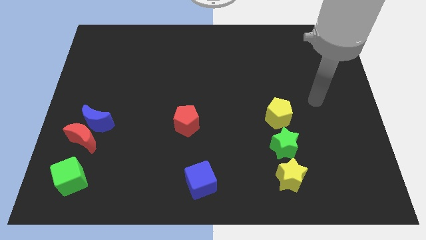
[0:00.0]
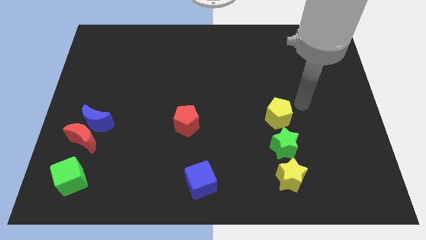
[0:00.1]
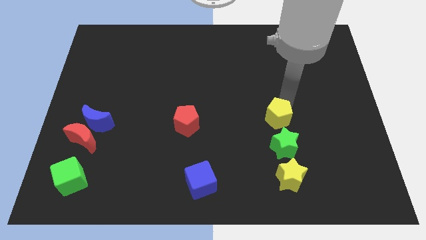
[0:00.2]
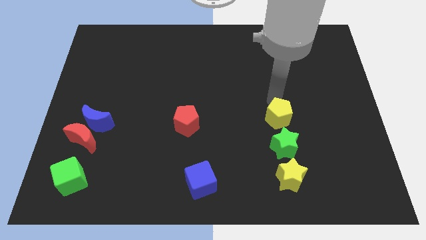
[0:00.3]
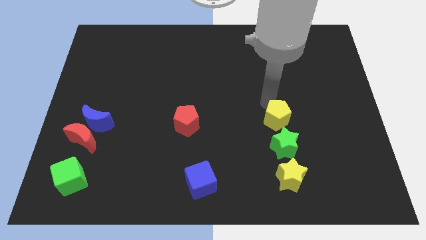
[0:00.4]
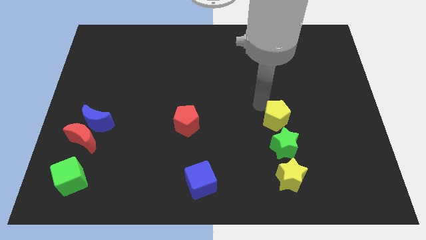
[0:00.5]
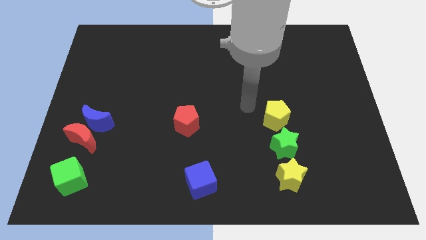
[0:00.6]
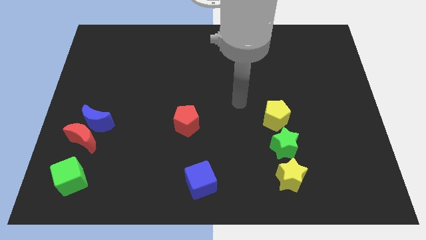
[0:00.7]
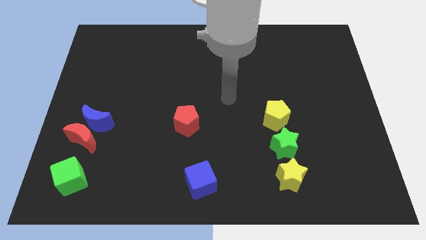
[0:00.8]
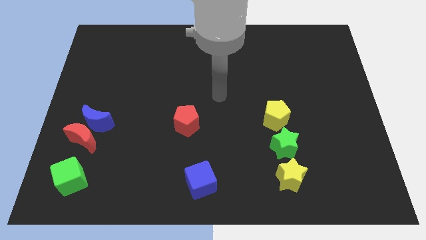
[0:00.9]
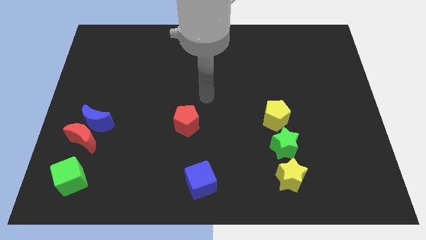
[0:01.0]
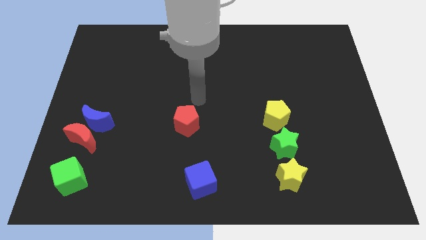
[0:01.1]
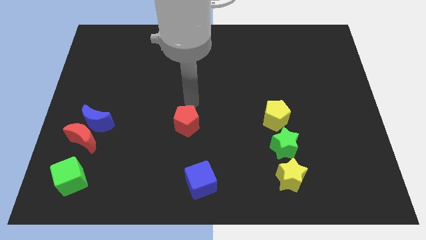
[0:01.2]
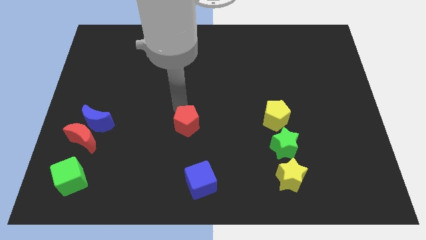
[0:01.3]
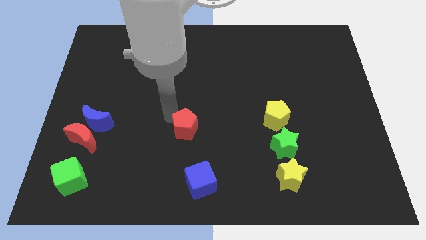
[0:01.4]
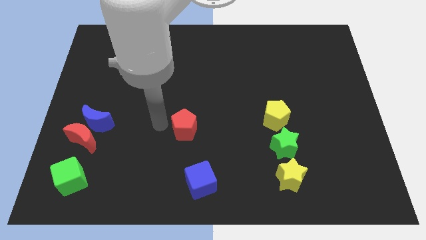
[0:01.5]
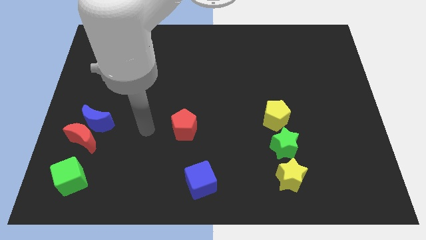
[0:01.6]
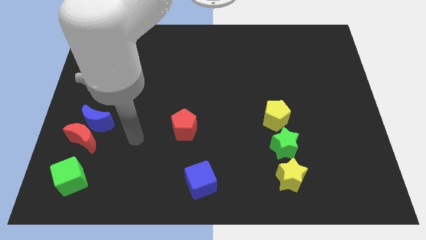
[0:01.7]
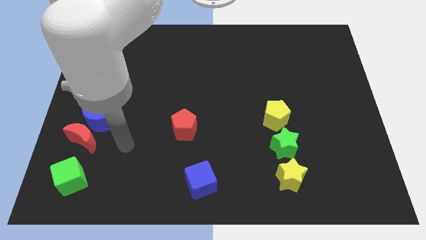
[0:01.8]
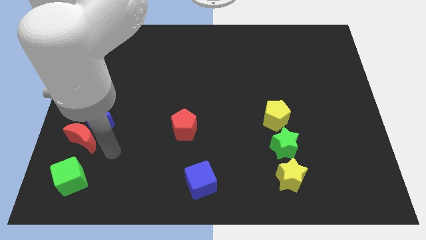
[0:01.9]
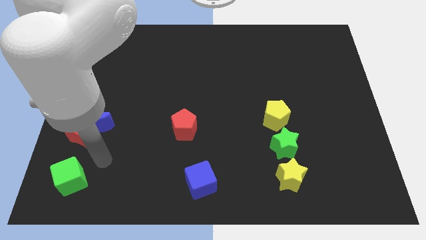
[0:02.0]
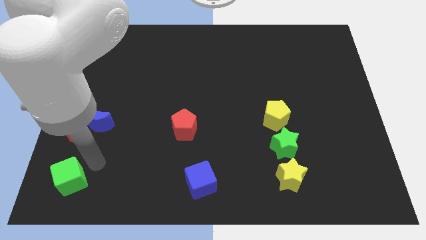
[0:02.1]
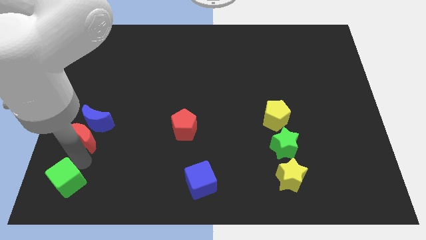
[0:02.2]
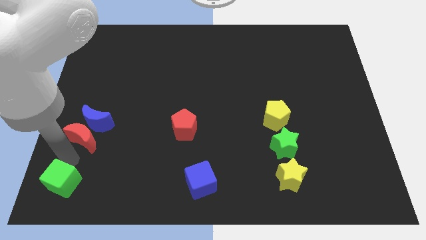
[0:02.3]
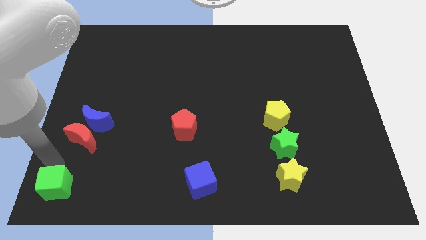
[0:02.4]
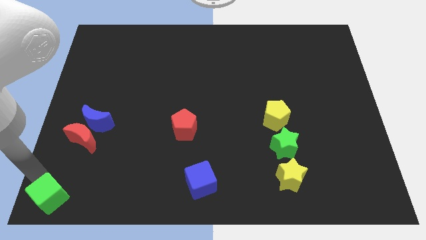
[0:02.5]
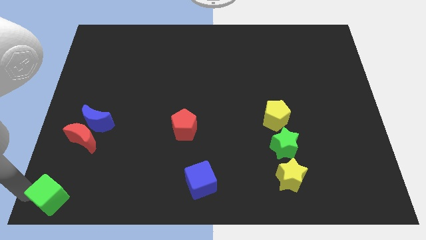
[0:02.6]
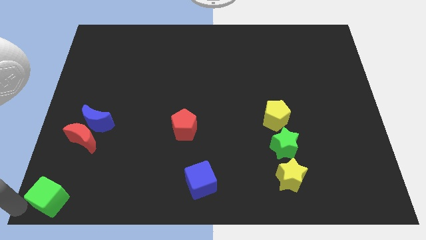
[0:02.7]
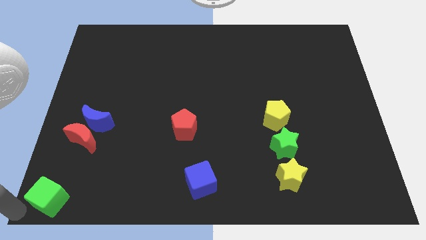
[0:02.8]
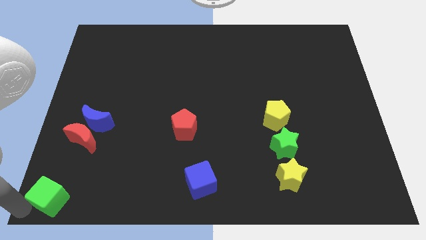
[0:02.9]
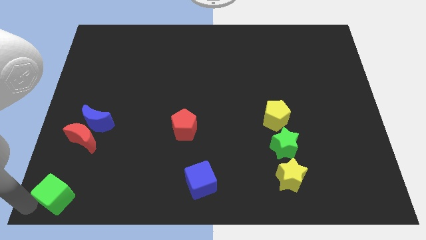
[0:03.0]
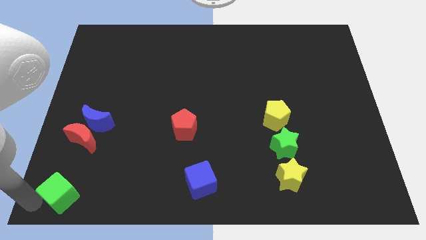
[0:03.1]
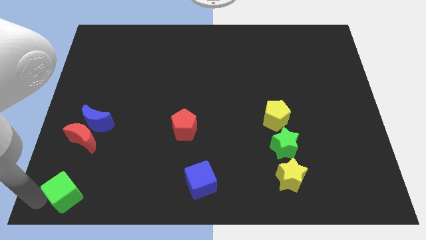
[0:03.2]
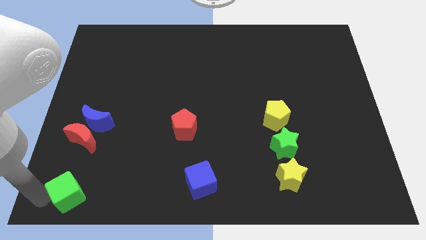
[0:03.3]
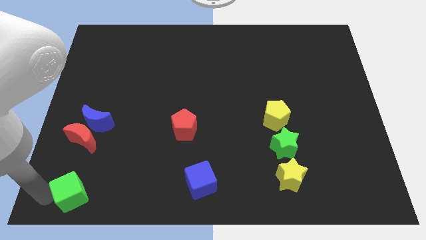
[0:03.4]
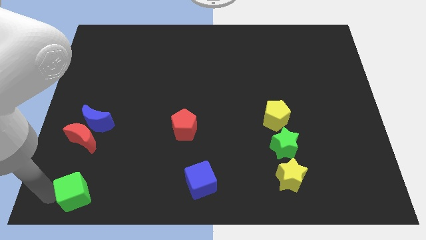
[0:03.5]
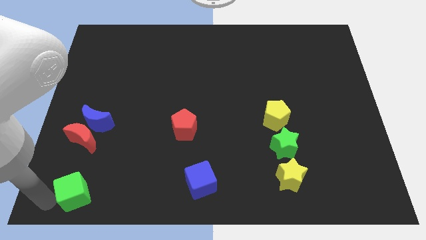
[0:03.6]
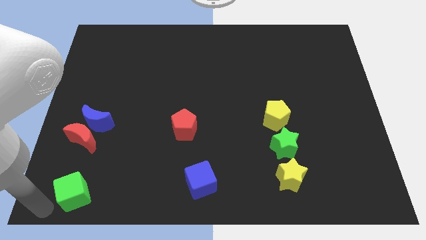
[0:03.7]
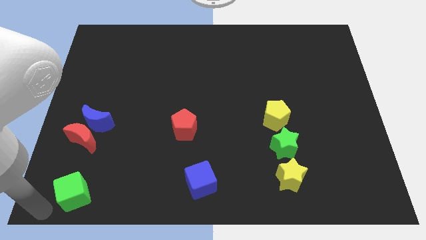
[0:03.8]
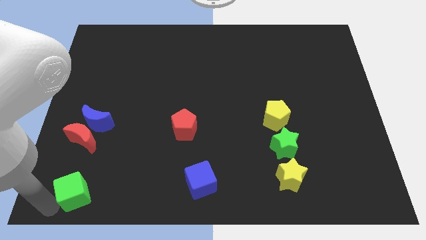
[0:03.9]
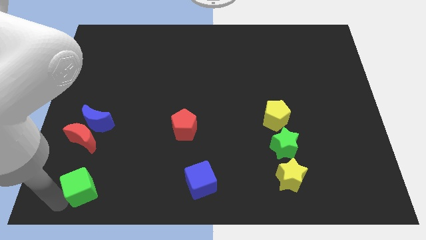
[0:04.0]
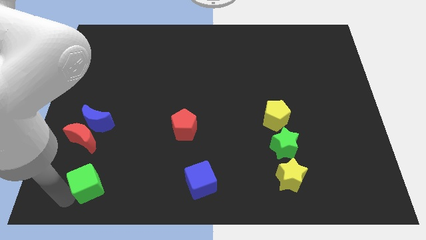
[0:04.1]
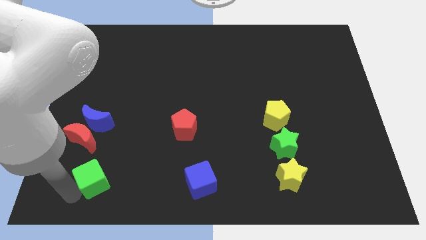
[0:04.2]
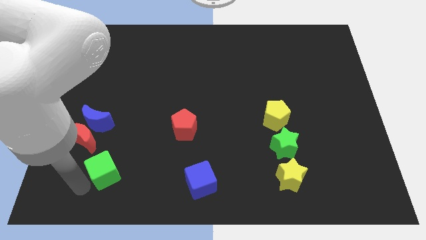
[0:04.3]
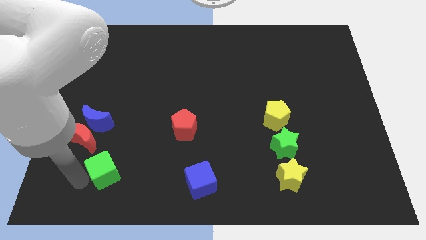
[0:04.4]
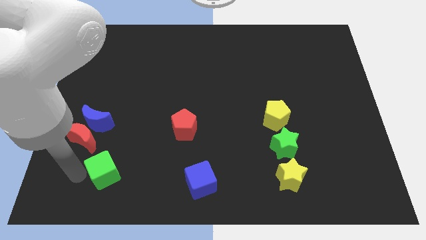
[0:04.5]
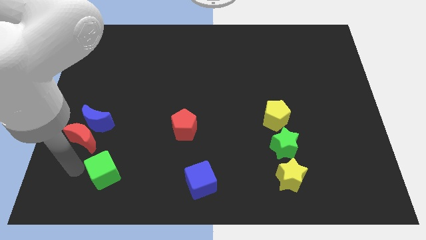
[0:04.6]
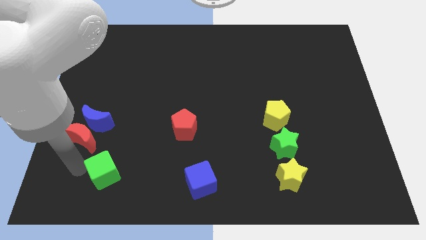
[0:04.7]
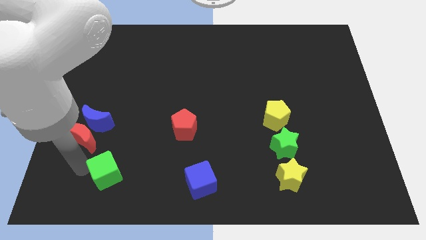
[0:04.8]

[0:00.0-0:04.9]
slightly slide the green cube right

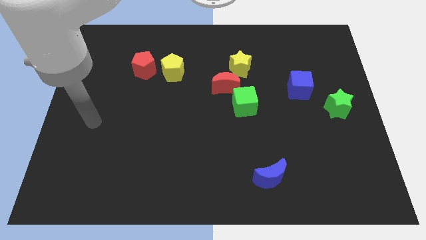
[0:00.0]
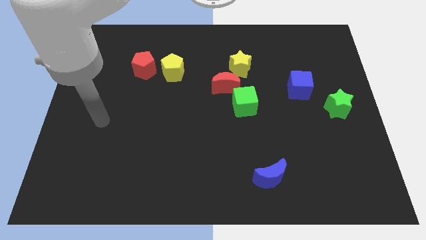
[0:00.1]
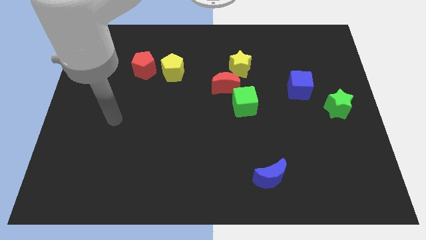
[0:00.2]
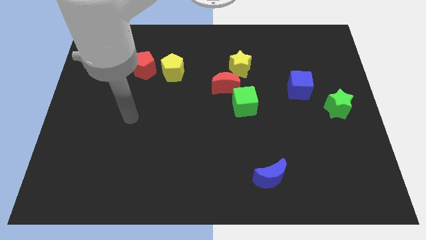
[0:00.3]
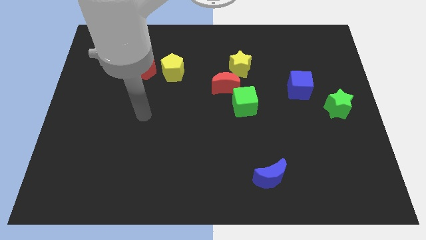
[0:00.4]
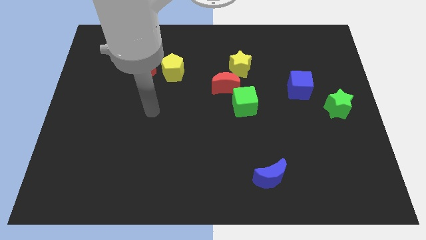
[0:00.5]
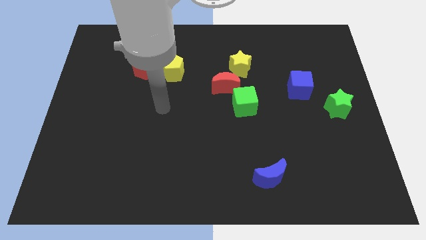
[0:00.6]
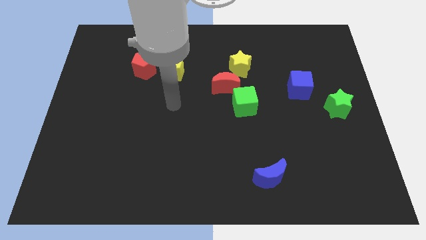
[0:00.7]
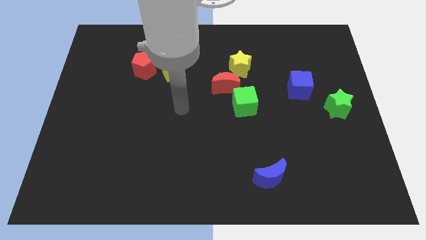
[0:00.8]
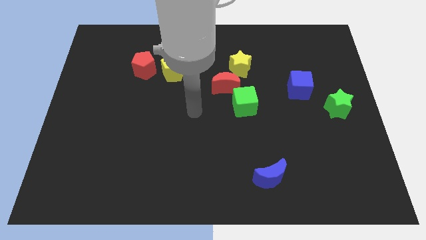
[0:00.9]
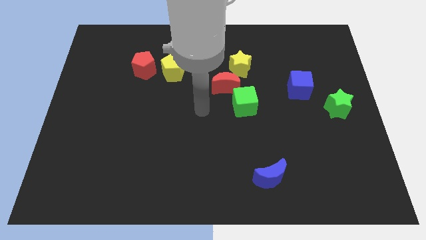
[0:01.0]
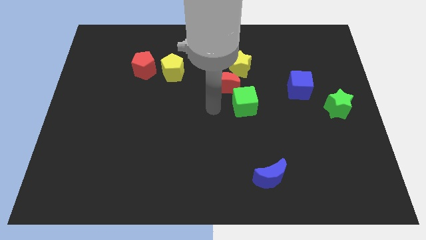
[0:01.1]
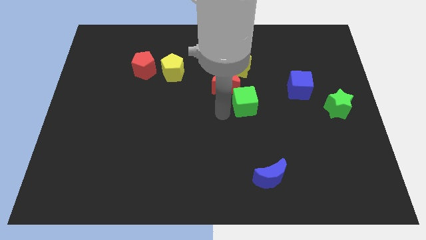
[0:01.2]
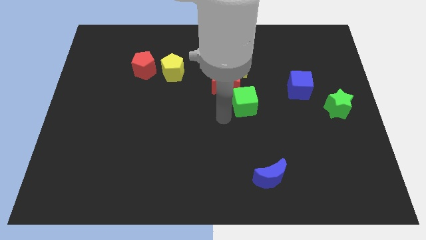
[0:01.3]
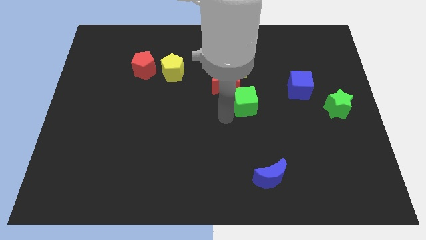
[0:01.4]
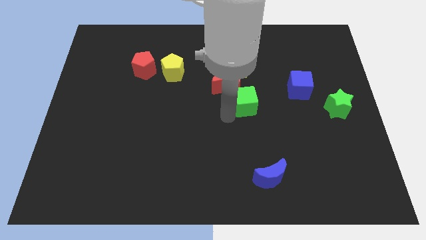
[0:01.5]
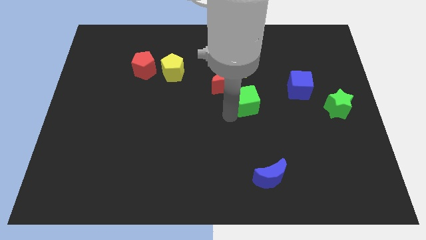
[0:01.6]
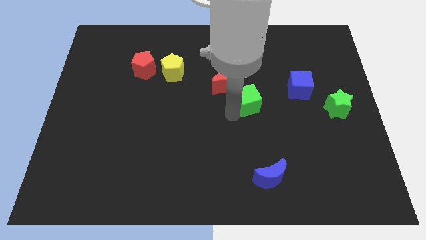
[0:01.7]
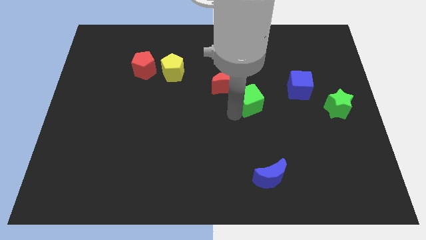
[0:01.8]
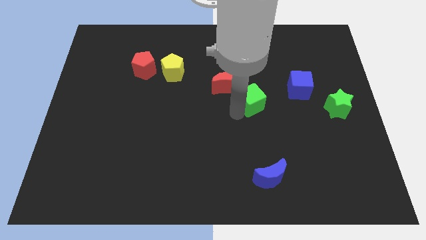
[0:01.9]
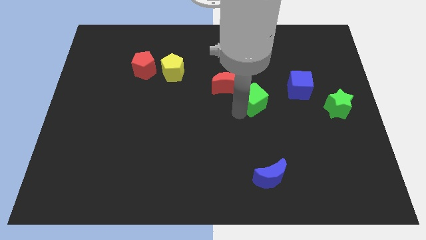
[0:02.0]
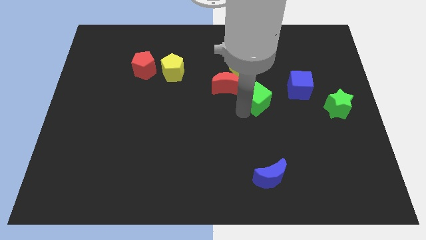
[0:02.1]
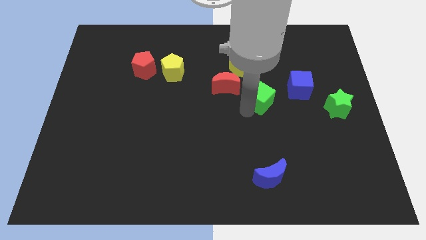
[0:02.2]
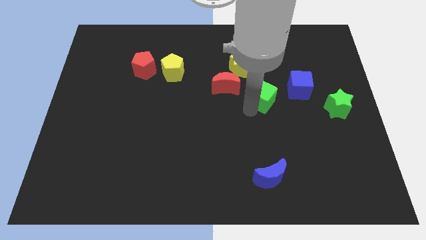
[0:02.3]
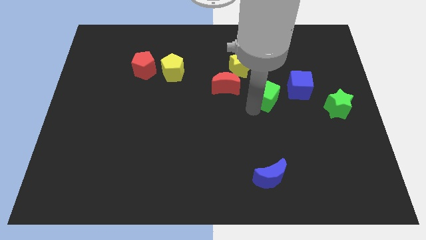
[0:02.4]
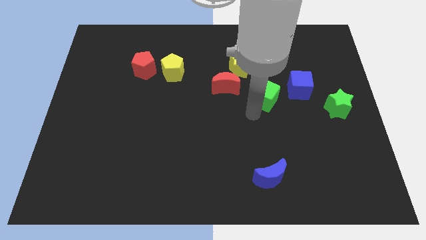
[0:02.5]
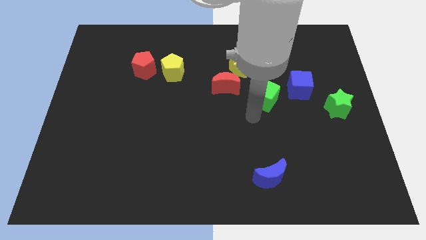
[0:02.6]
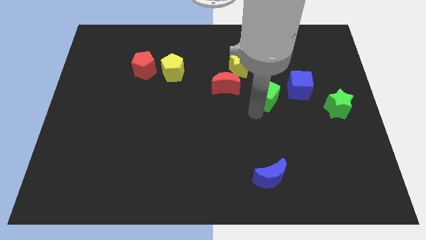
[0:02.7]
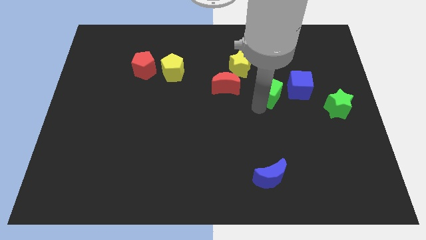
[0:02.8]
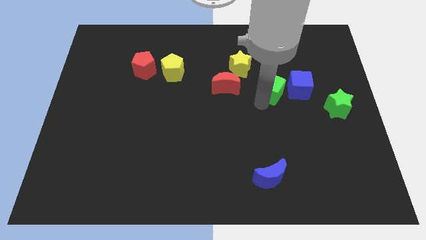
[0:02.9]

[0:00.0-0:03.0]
slightly move the green cube upwards and then to the right

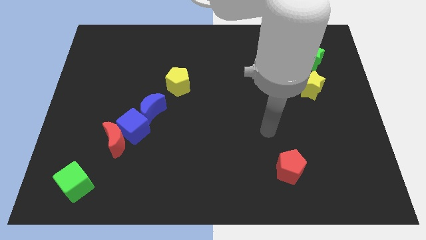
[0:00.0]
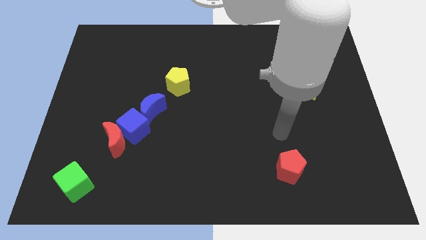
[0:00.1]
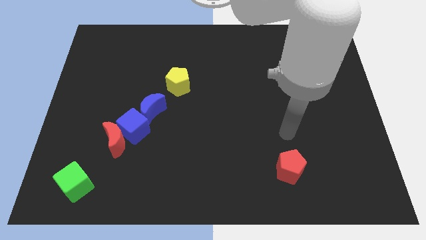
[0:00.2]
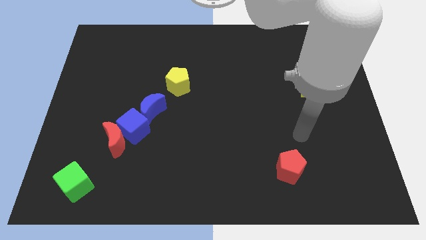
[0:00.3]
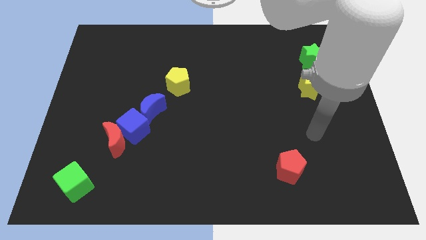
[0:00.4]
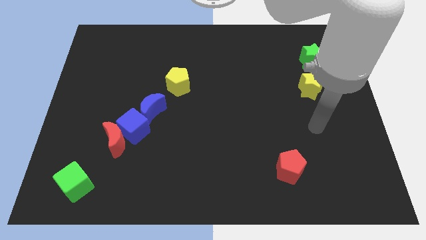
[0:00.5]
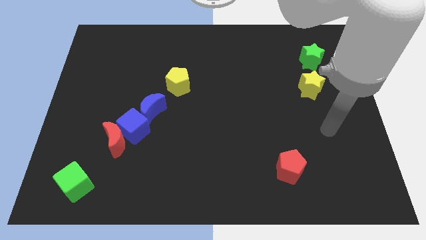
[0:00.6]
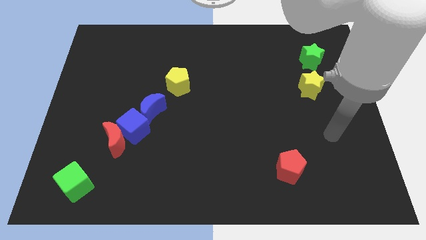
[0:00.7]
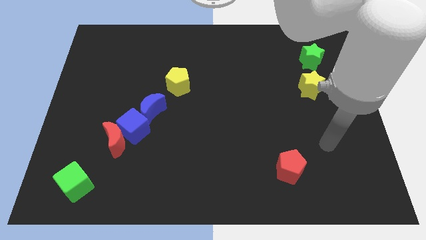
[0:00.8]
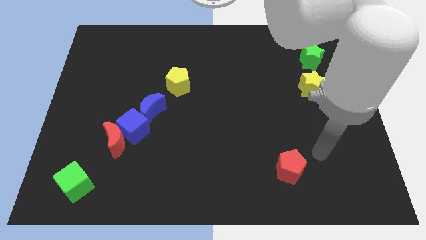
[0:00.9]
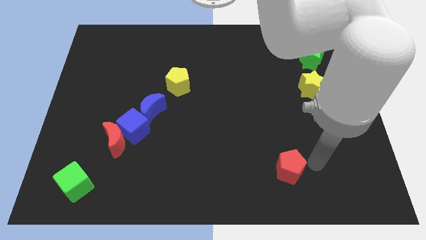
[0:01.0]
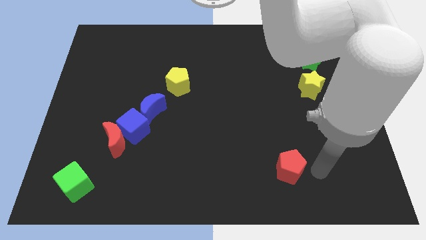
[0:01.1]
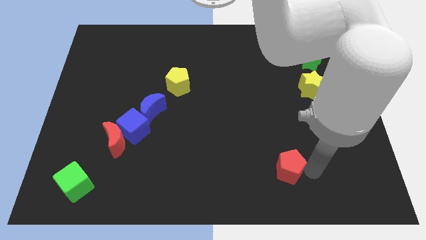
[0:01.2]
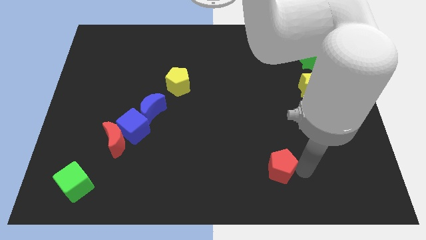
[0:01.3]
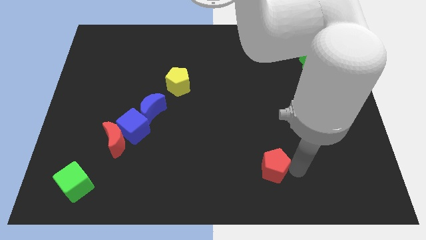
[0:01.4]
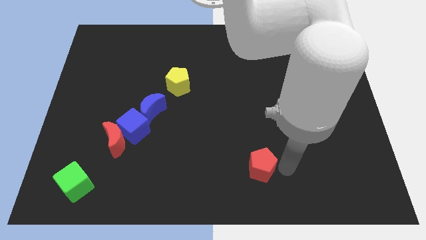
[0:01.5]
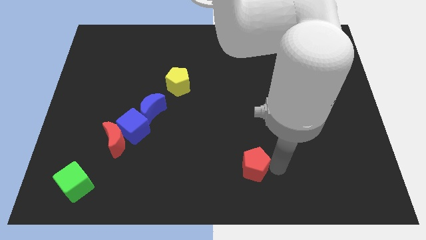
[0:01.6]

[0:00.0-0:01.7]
slide the red pentagon a little bit to the left
